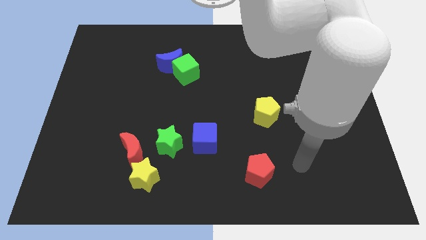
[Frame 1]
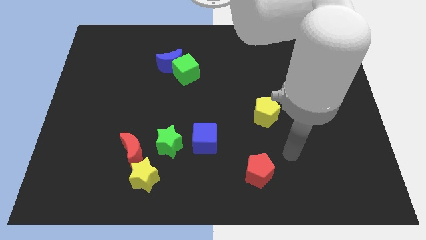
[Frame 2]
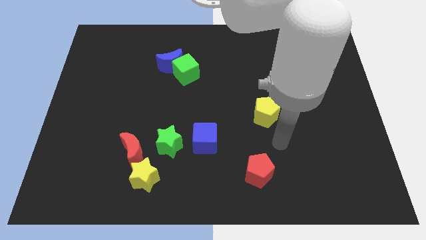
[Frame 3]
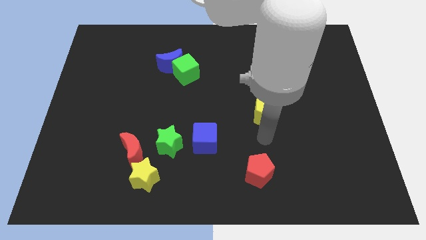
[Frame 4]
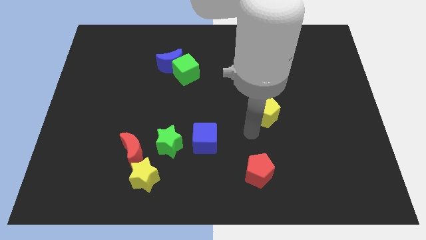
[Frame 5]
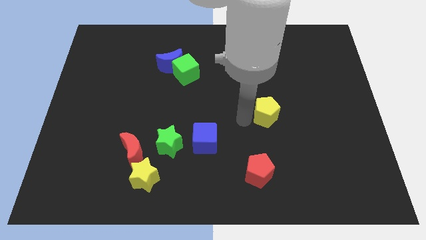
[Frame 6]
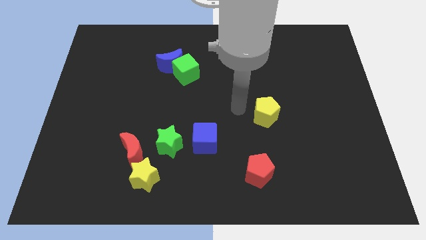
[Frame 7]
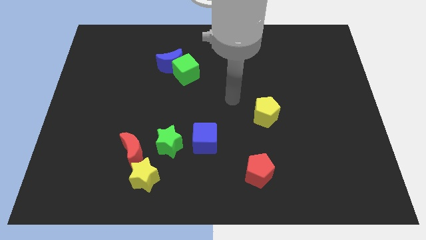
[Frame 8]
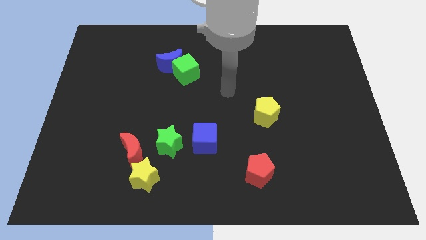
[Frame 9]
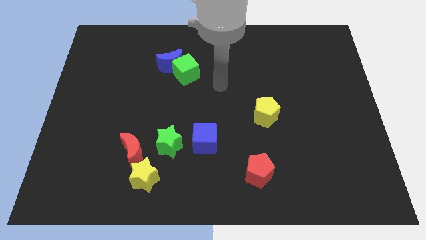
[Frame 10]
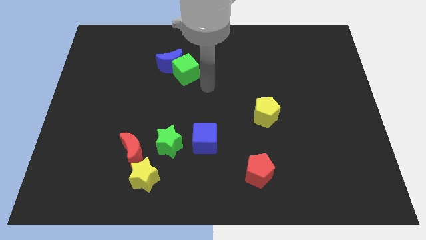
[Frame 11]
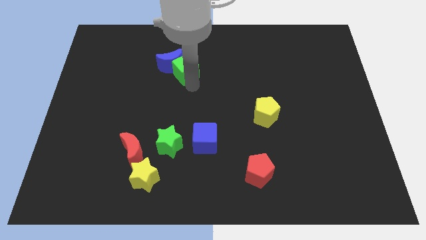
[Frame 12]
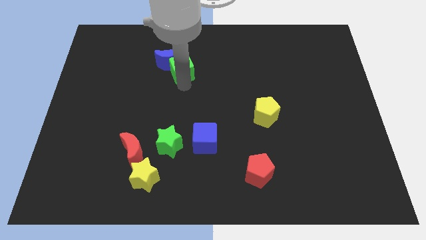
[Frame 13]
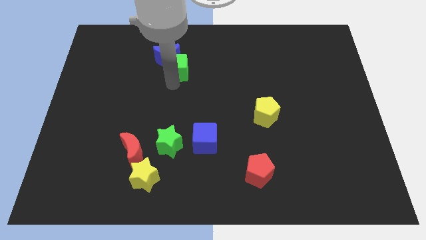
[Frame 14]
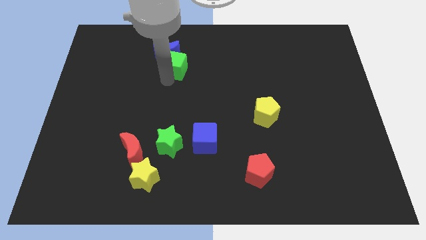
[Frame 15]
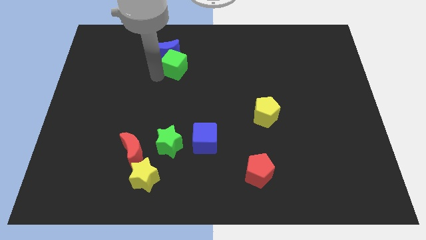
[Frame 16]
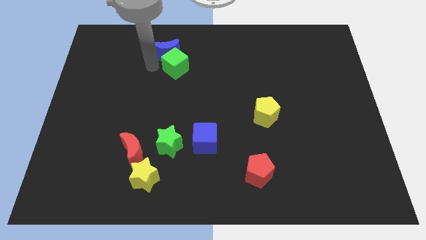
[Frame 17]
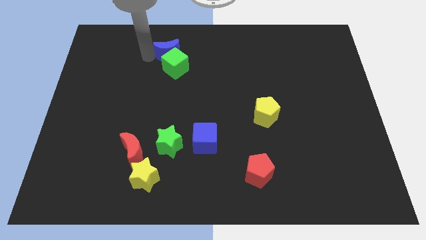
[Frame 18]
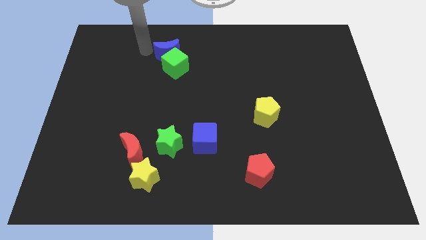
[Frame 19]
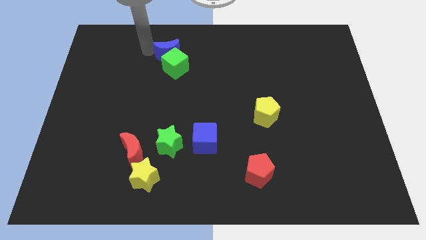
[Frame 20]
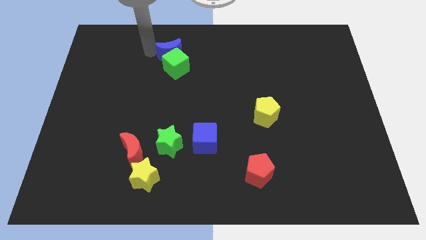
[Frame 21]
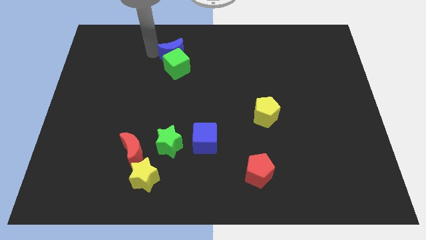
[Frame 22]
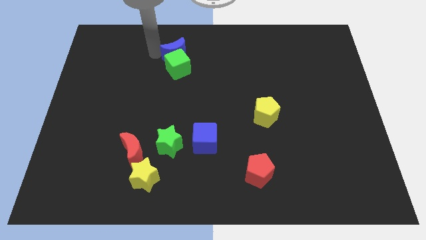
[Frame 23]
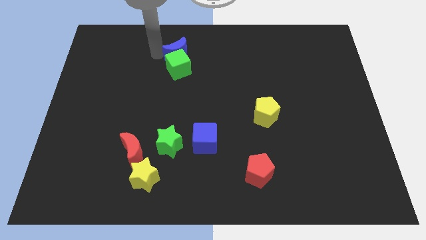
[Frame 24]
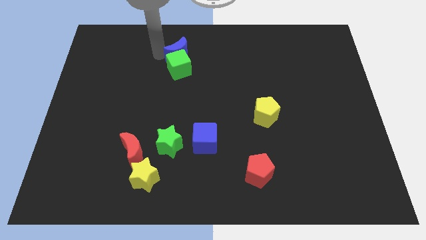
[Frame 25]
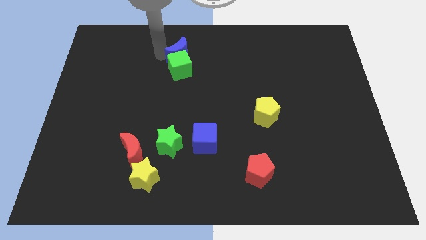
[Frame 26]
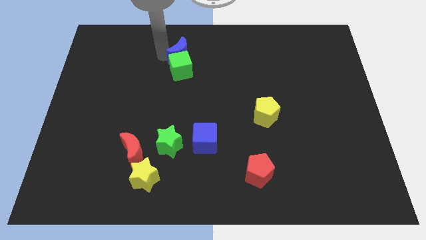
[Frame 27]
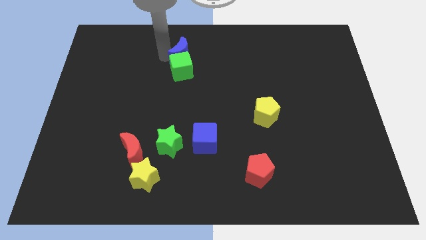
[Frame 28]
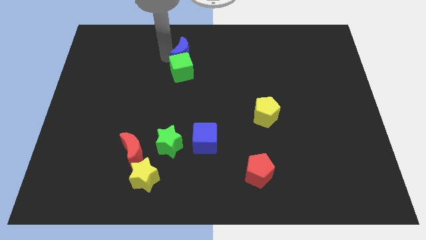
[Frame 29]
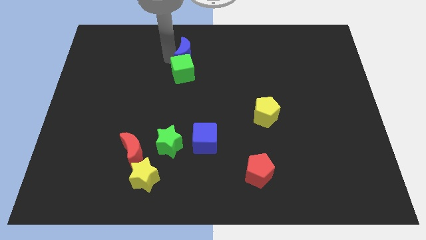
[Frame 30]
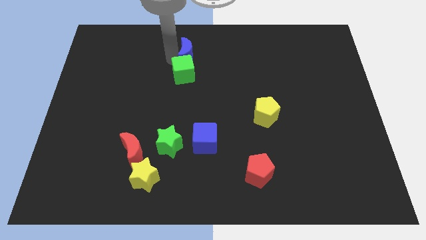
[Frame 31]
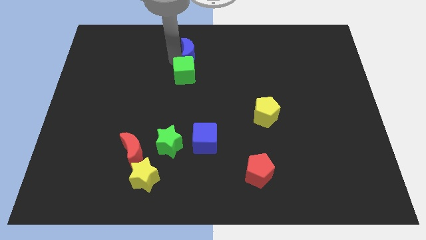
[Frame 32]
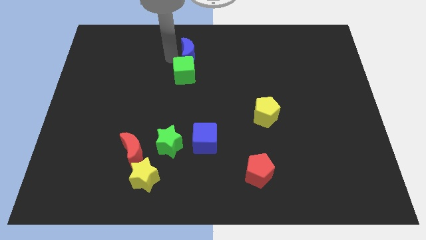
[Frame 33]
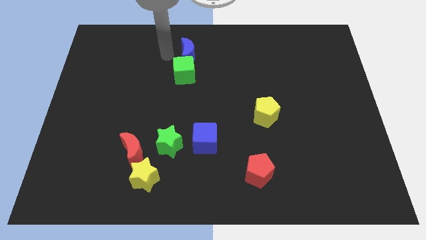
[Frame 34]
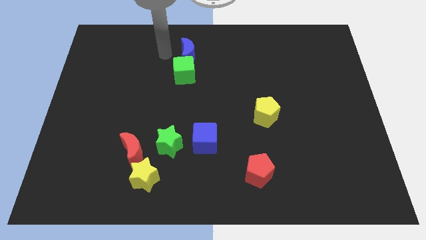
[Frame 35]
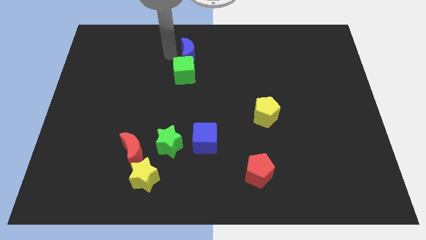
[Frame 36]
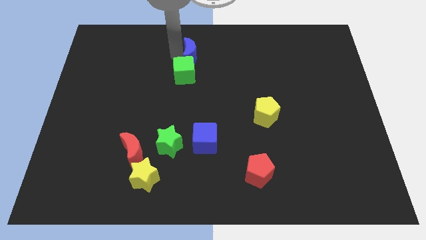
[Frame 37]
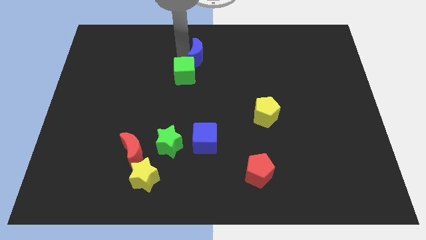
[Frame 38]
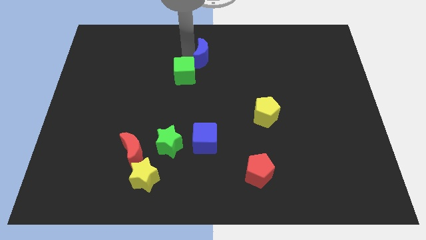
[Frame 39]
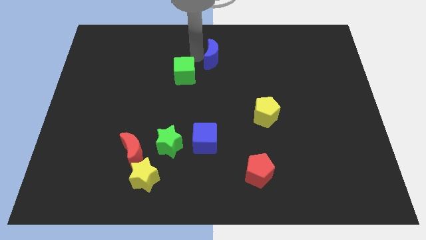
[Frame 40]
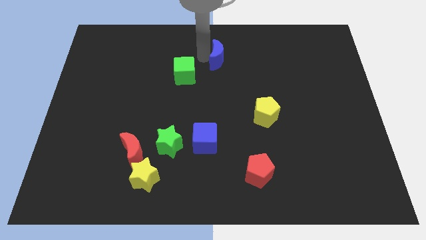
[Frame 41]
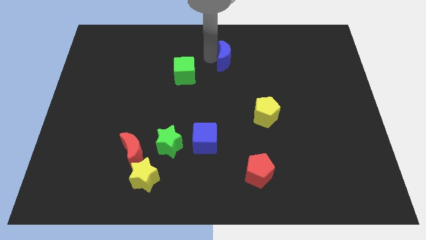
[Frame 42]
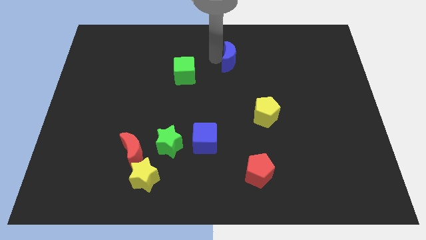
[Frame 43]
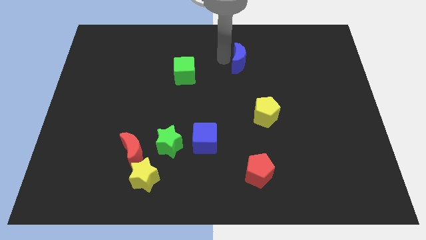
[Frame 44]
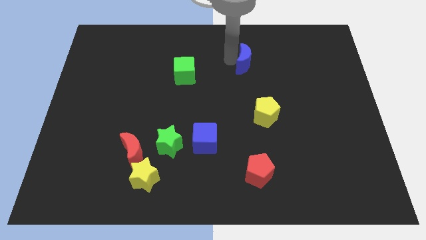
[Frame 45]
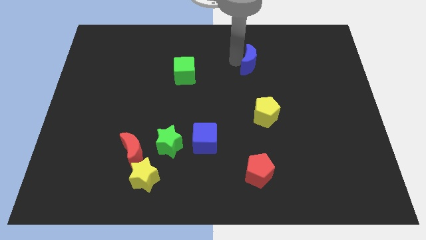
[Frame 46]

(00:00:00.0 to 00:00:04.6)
move the blue moon to the right

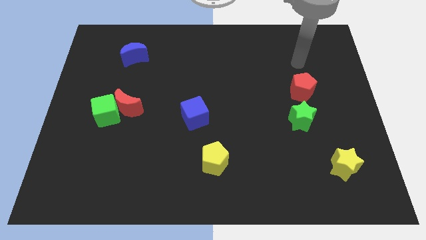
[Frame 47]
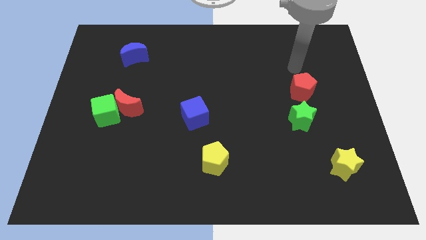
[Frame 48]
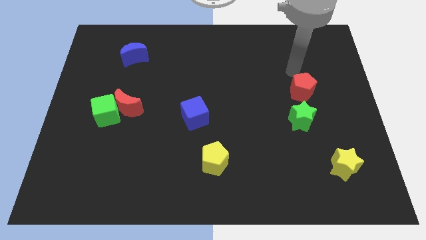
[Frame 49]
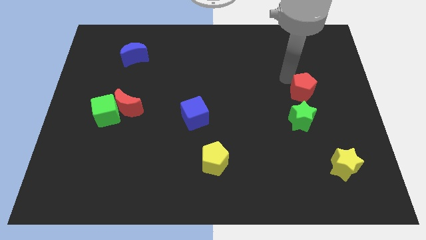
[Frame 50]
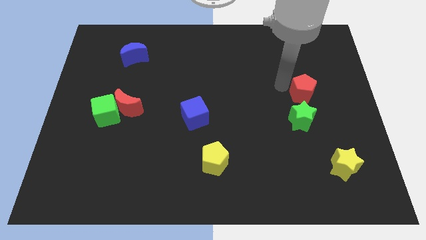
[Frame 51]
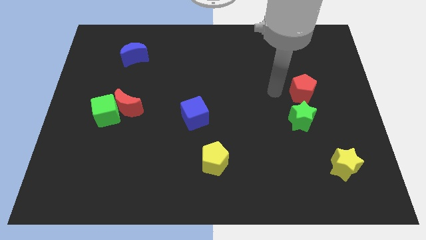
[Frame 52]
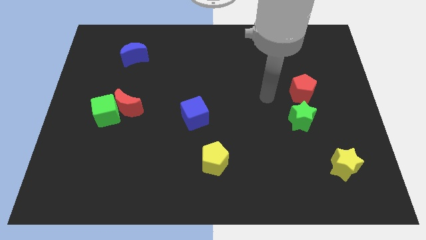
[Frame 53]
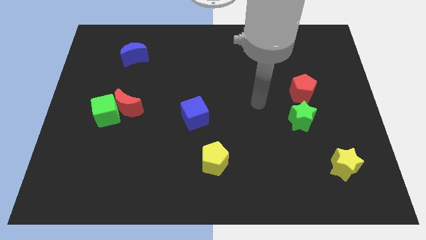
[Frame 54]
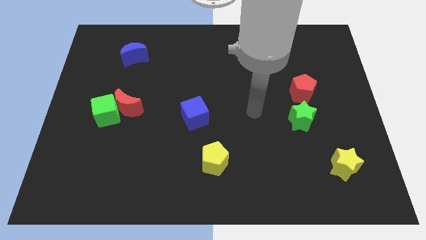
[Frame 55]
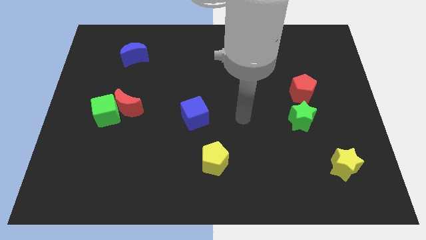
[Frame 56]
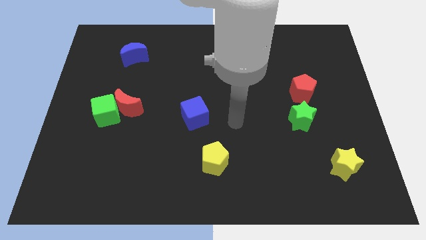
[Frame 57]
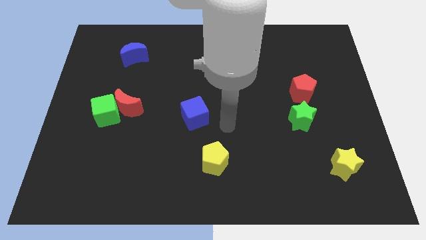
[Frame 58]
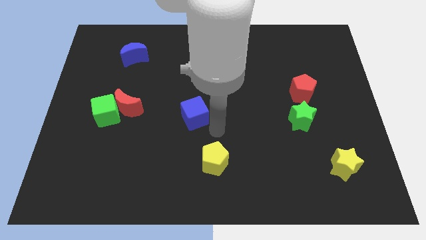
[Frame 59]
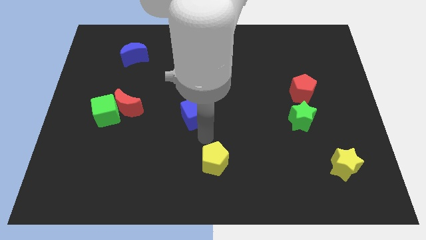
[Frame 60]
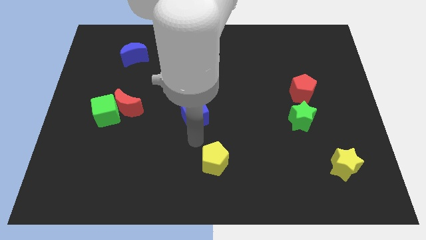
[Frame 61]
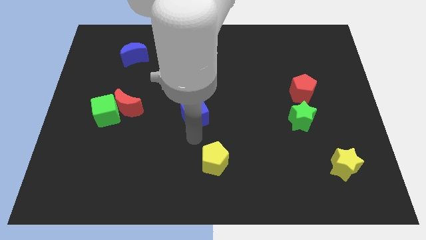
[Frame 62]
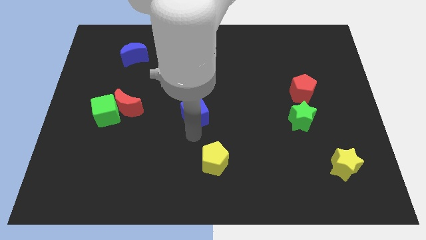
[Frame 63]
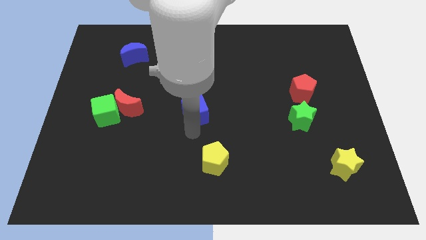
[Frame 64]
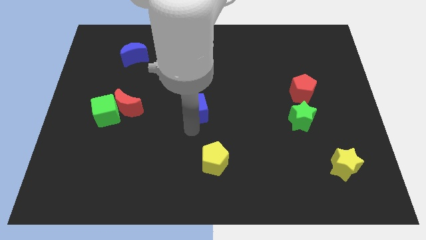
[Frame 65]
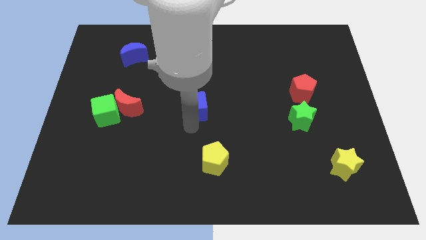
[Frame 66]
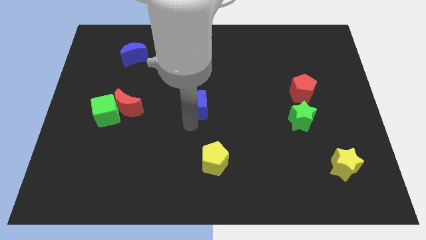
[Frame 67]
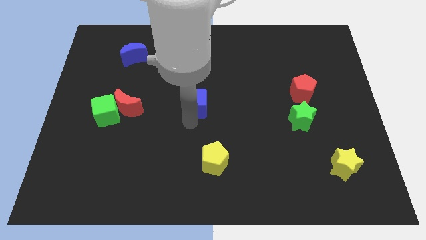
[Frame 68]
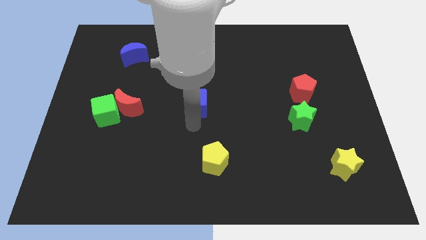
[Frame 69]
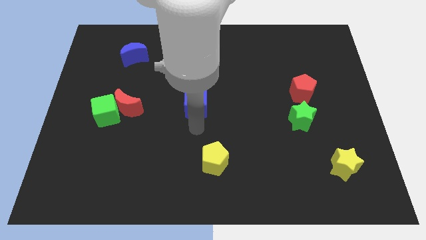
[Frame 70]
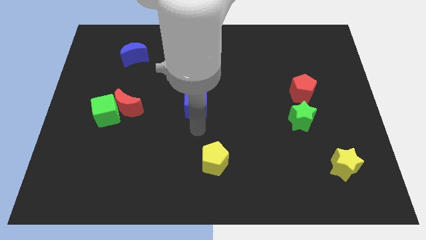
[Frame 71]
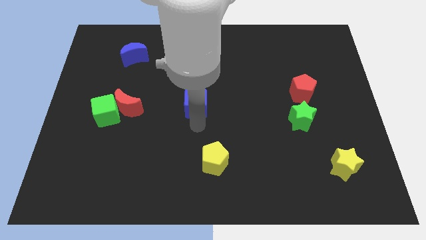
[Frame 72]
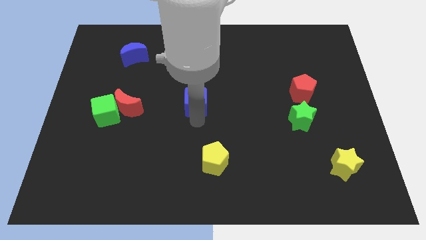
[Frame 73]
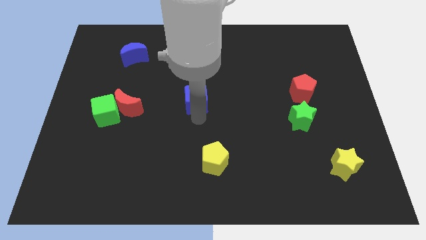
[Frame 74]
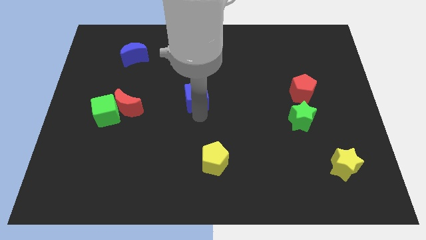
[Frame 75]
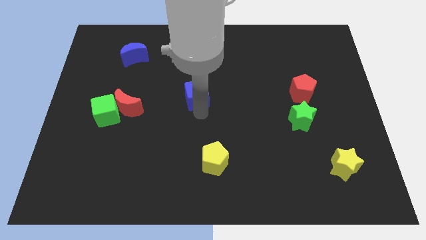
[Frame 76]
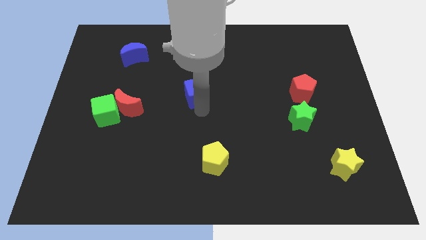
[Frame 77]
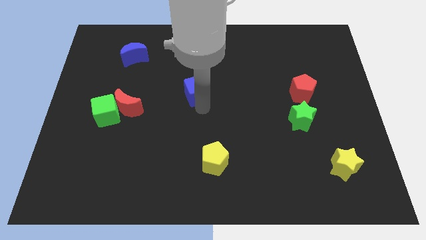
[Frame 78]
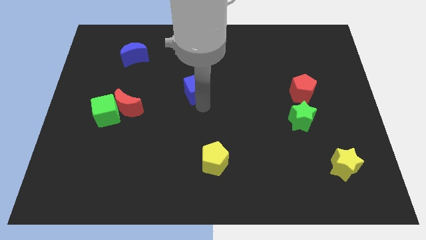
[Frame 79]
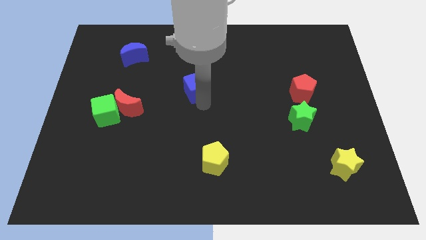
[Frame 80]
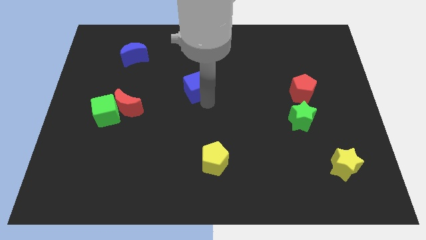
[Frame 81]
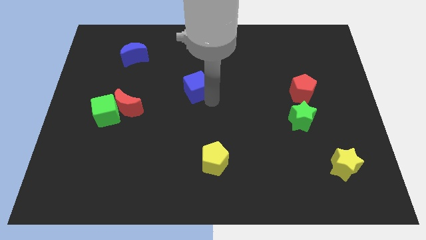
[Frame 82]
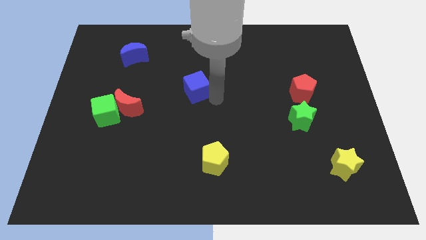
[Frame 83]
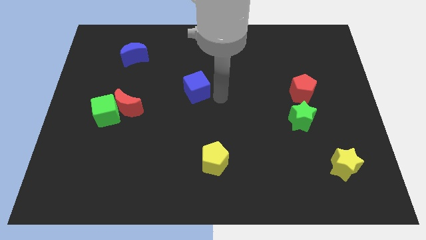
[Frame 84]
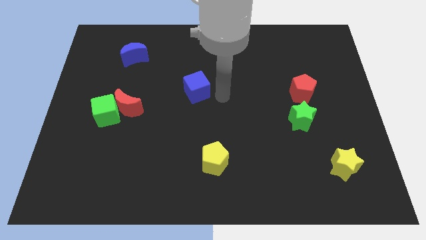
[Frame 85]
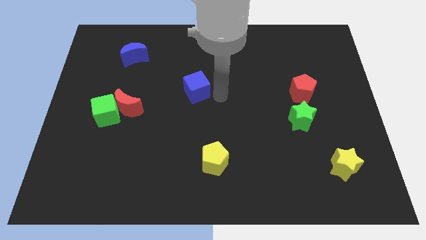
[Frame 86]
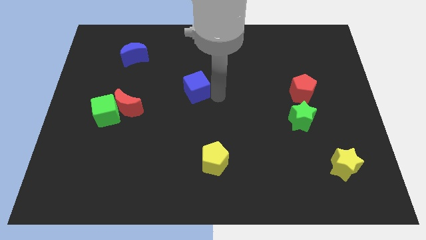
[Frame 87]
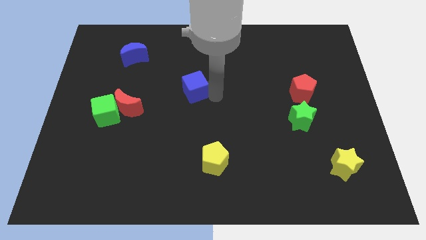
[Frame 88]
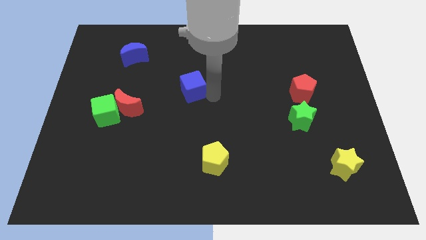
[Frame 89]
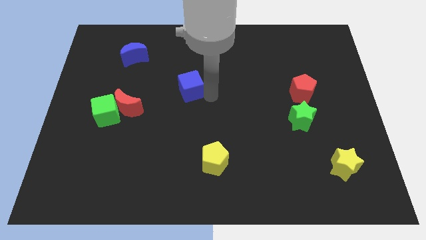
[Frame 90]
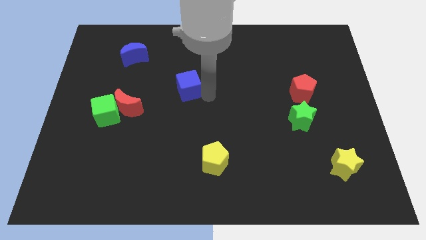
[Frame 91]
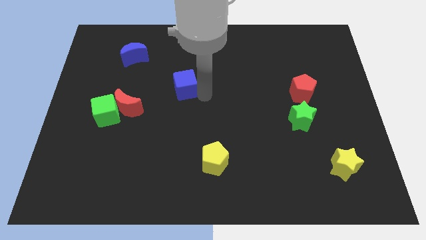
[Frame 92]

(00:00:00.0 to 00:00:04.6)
move the blue cube up and to the left a little bit
